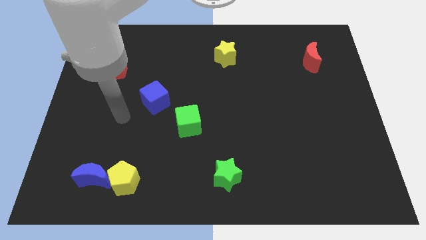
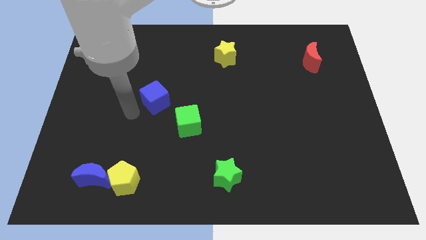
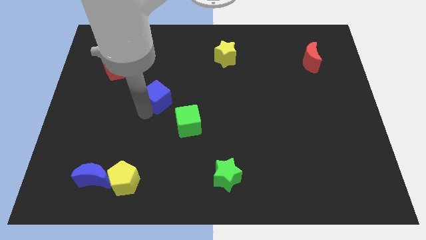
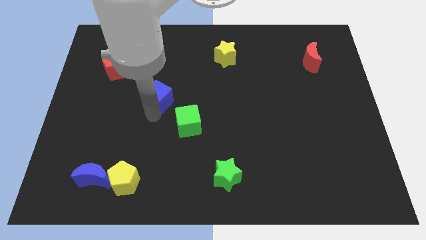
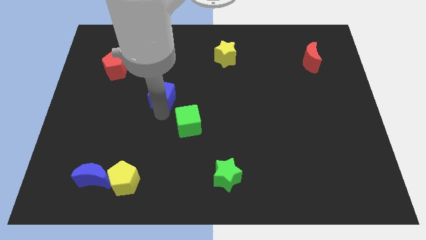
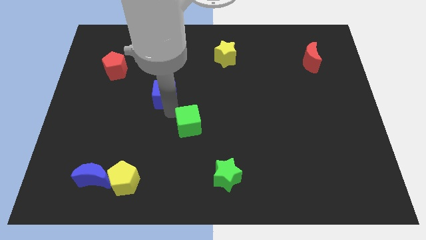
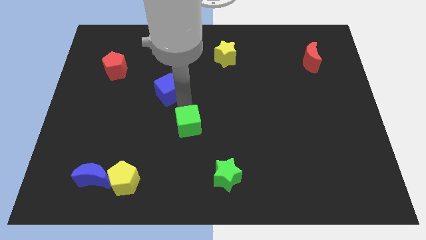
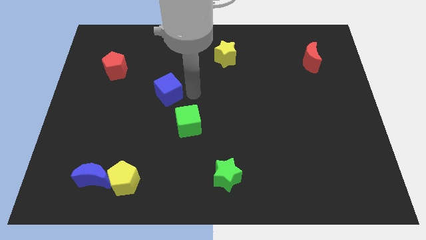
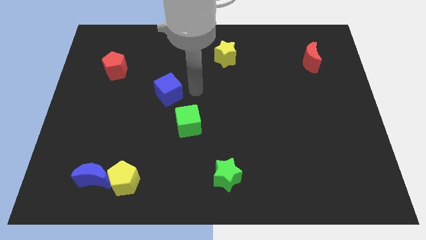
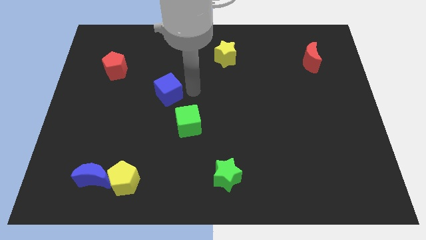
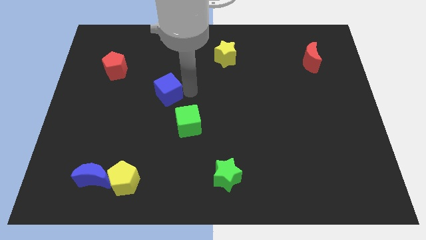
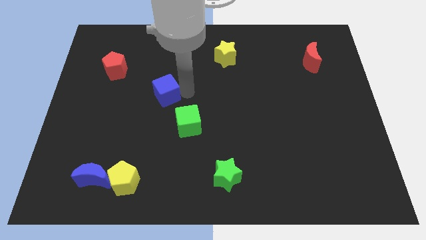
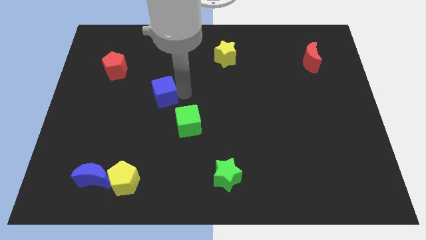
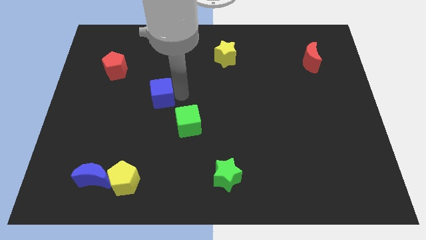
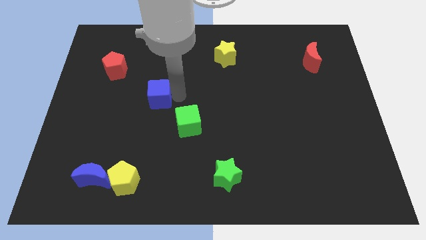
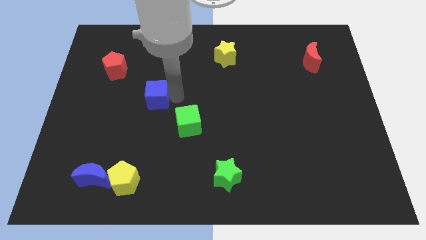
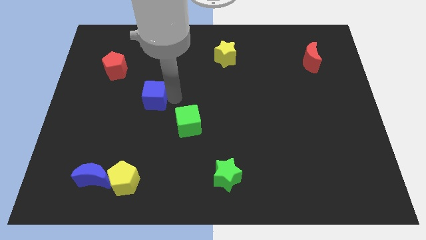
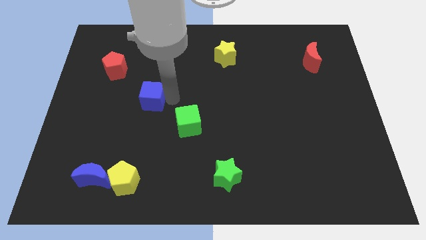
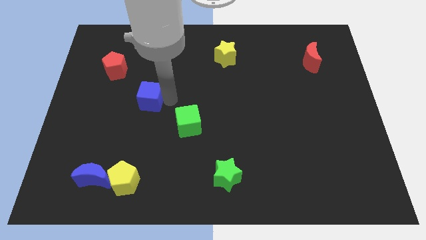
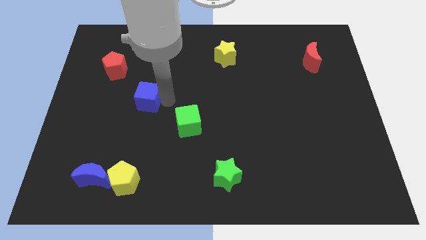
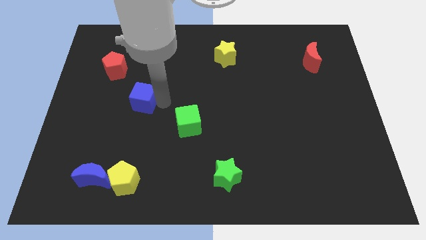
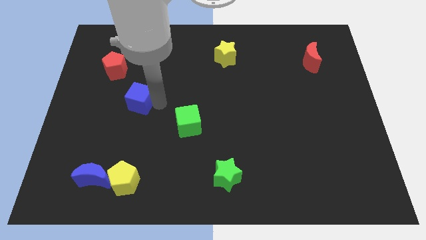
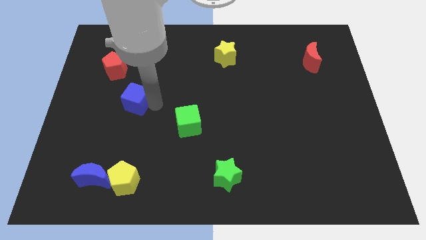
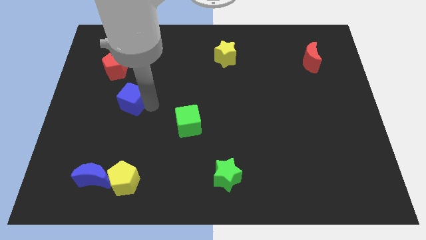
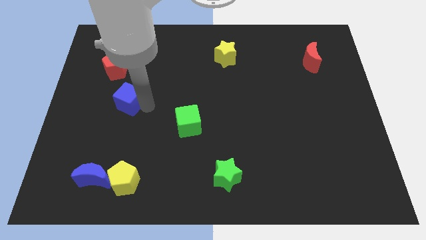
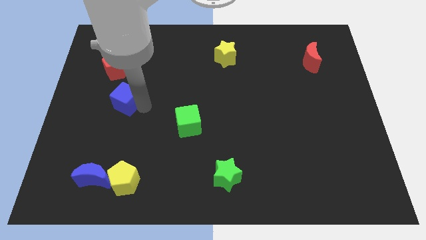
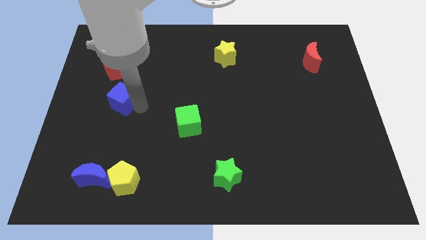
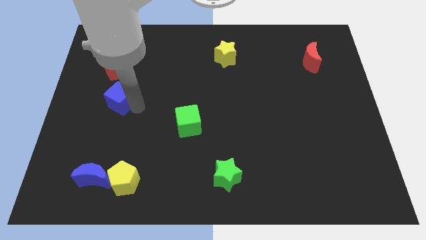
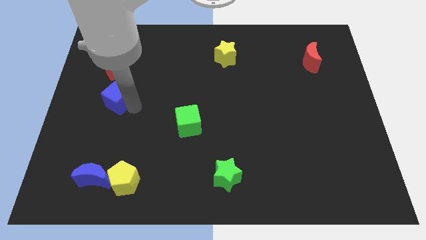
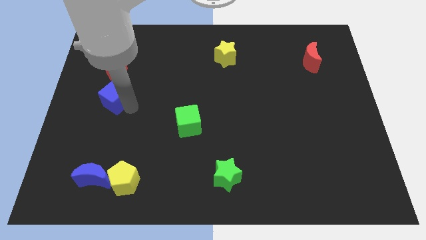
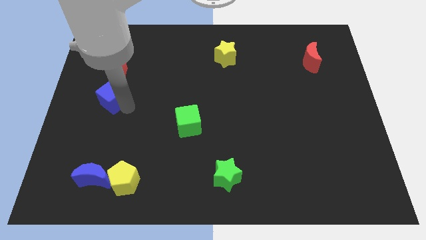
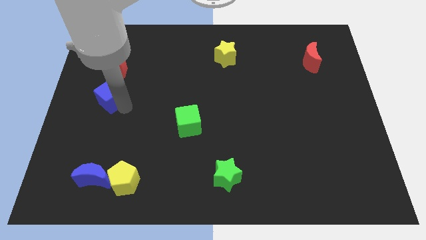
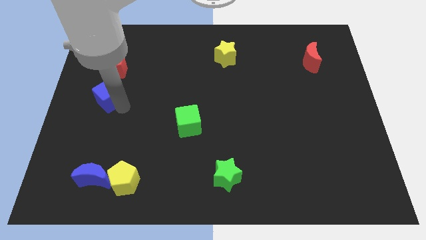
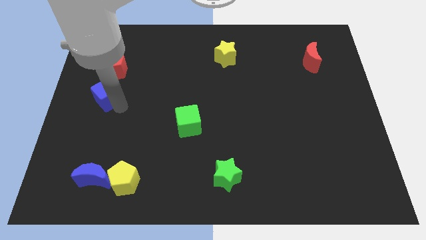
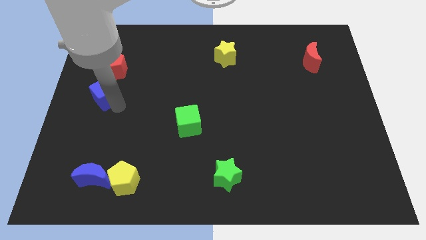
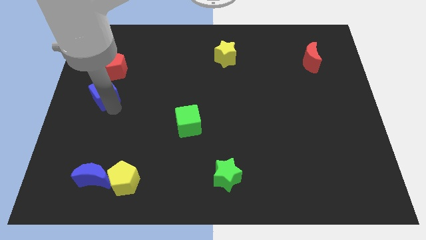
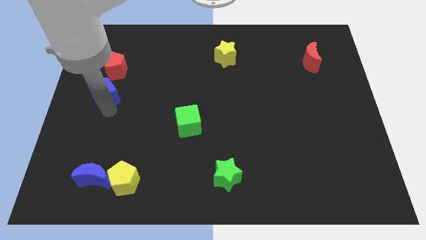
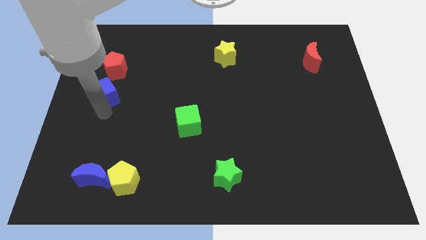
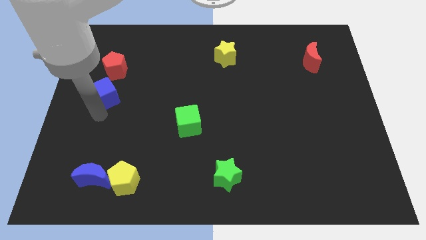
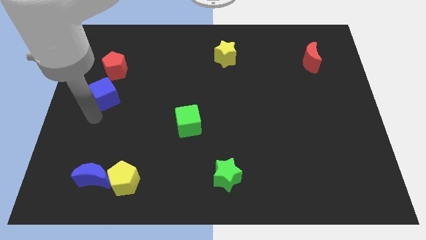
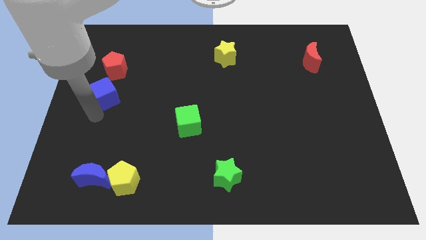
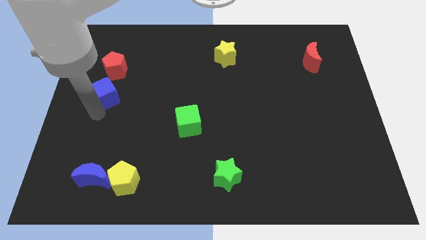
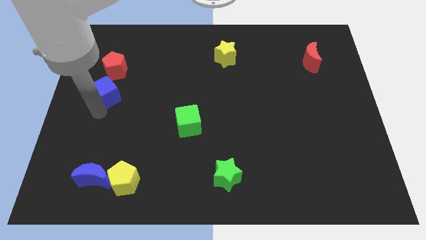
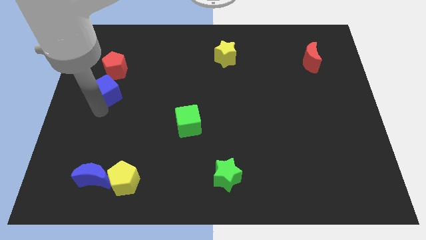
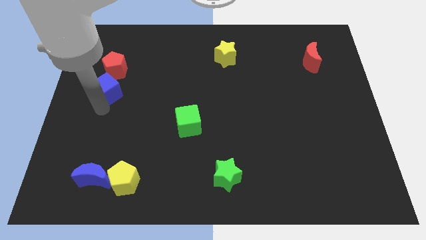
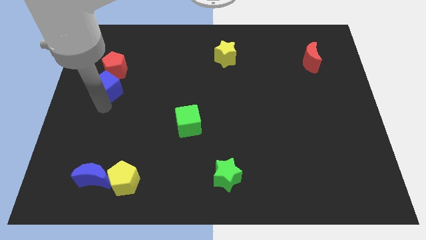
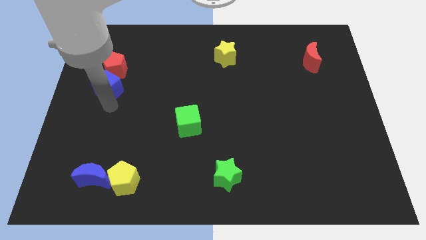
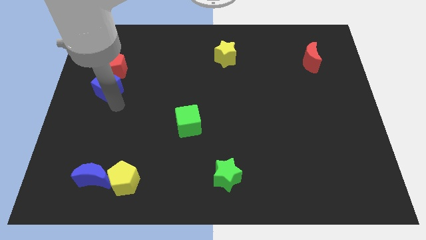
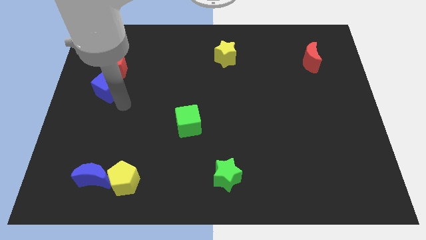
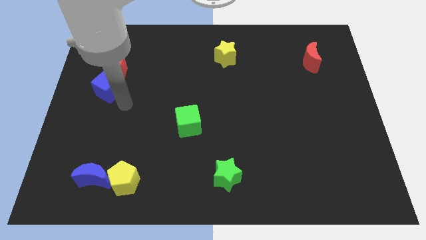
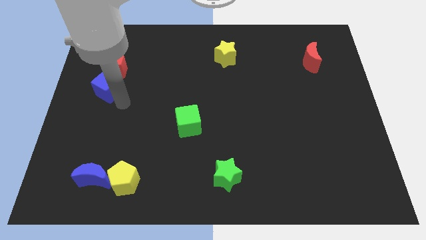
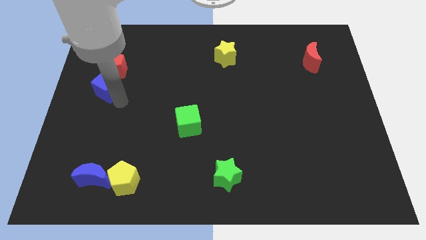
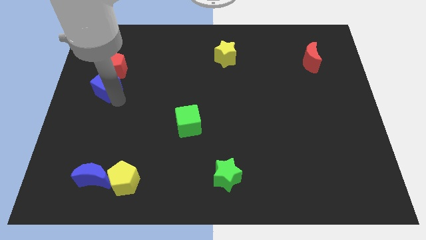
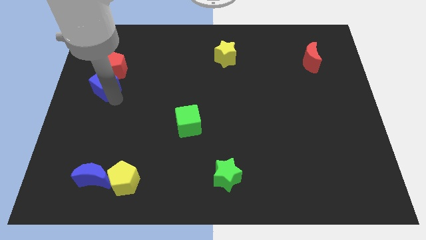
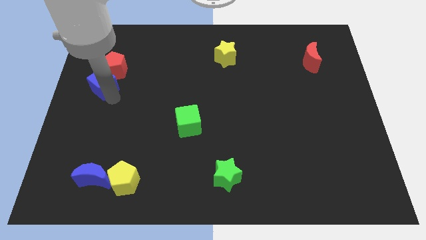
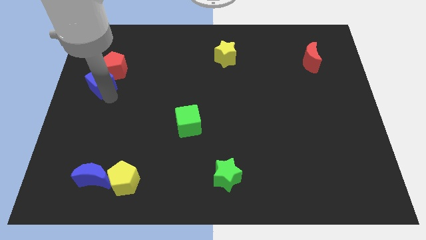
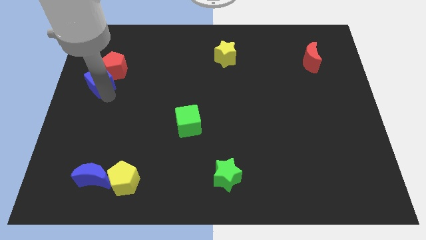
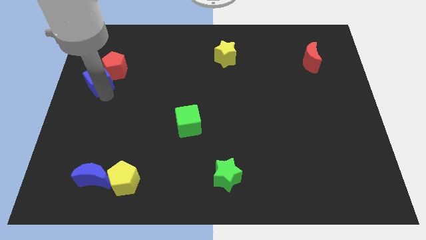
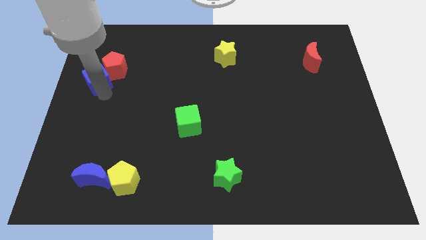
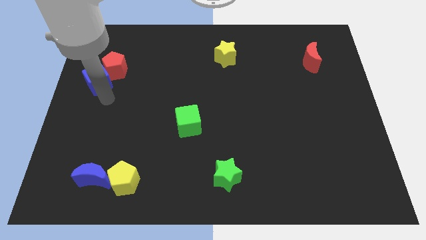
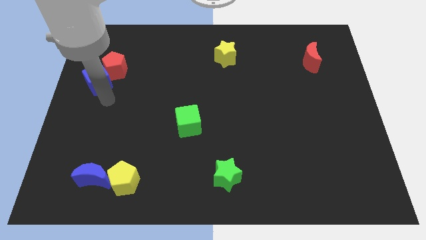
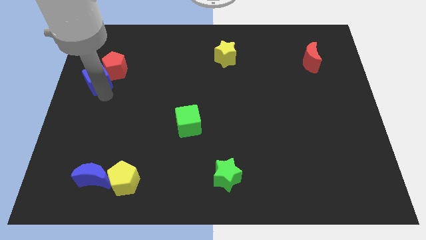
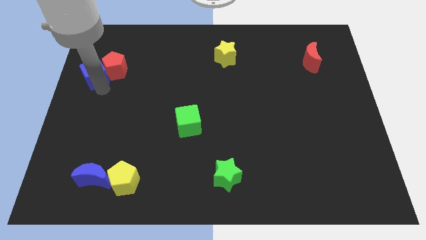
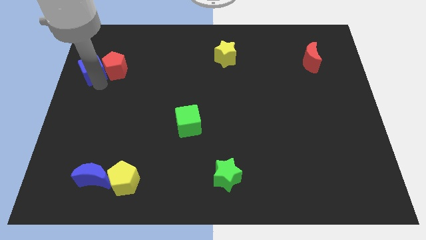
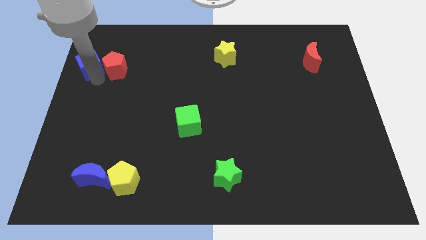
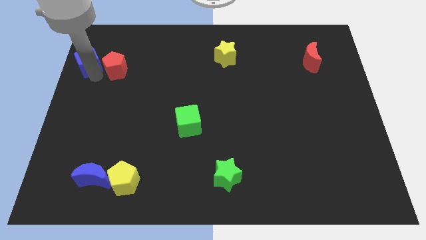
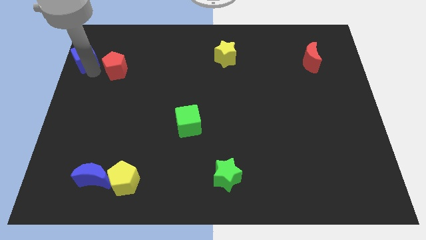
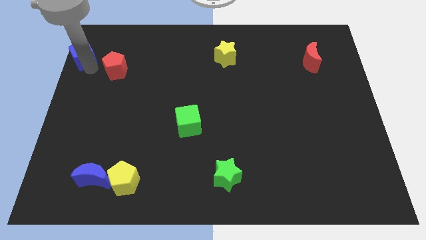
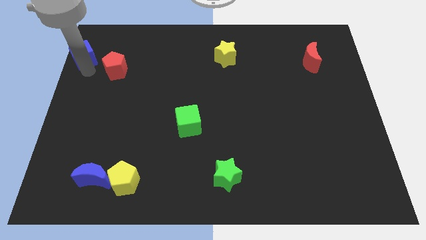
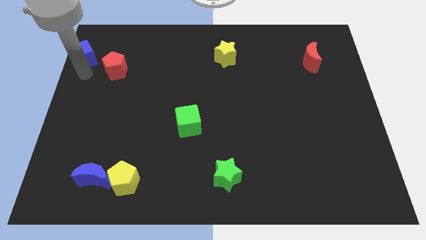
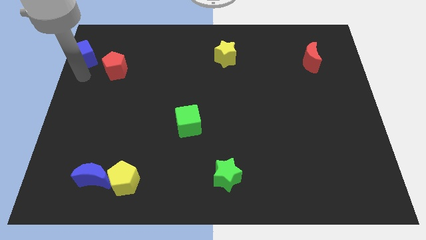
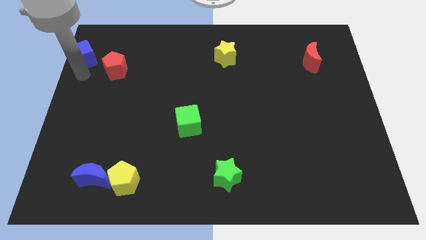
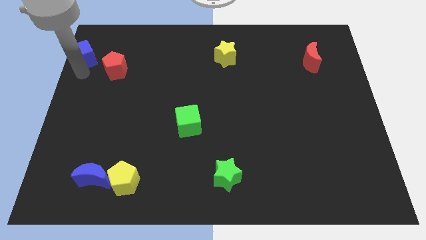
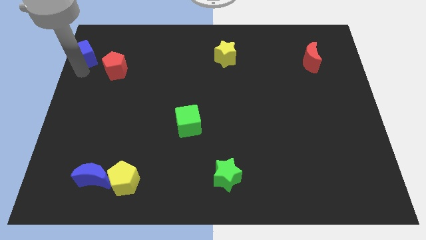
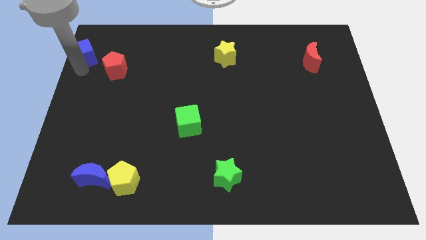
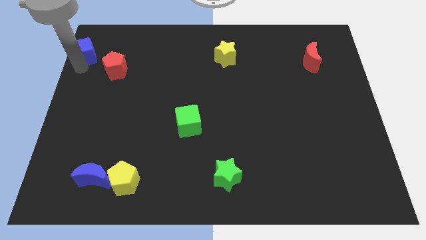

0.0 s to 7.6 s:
slide the blue cube to the upper left corner
